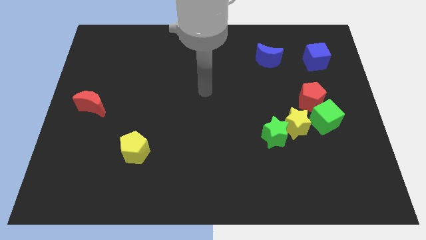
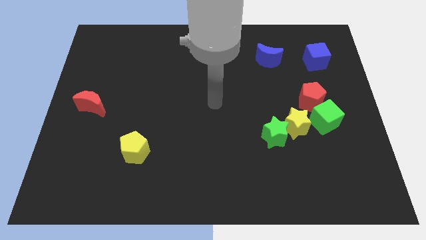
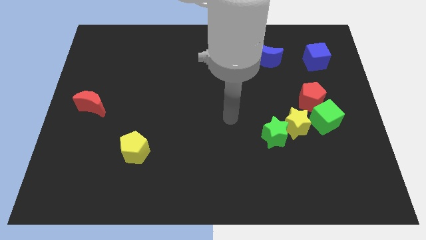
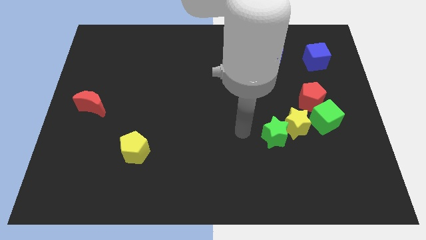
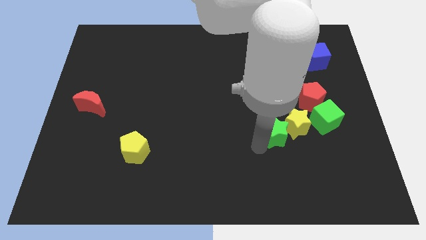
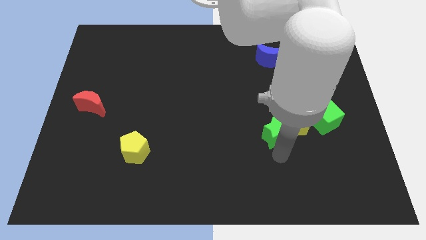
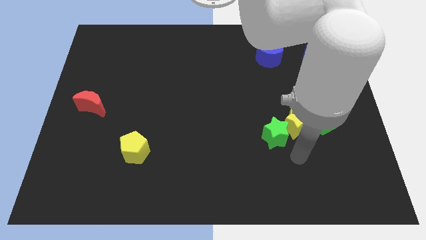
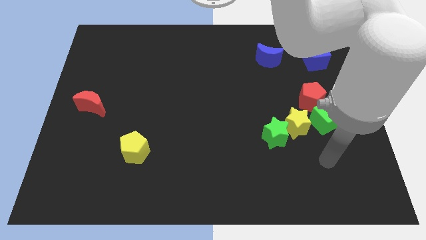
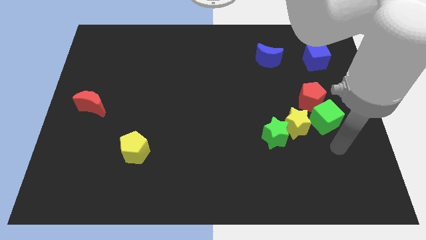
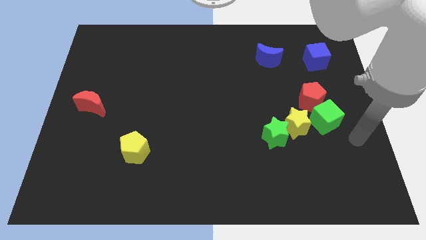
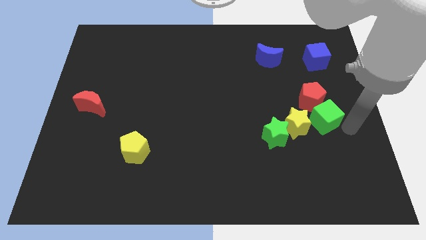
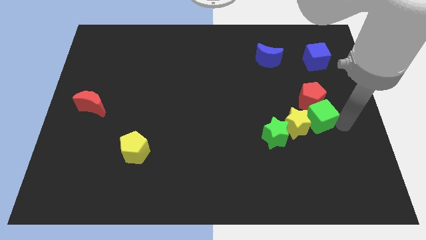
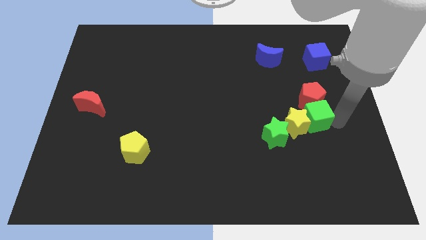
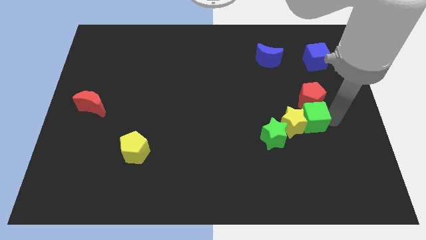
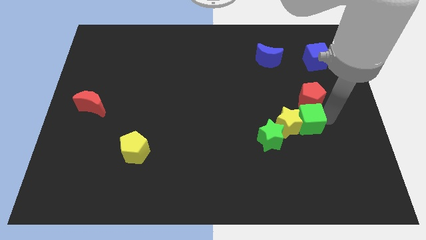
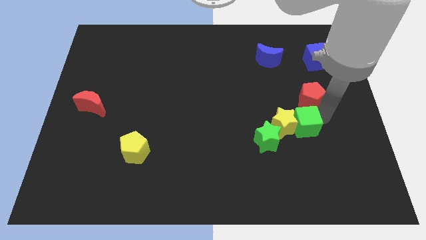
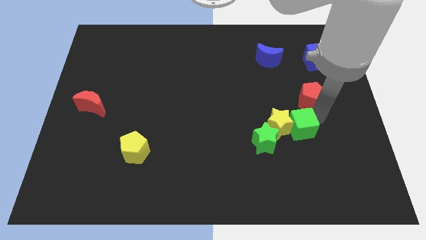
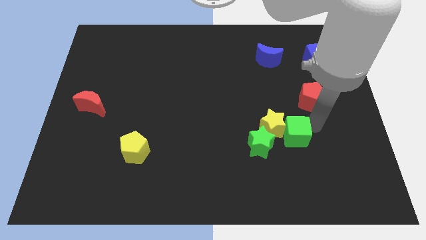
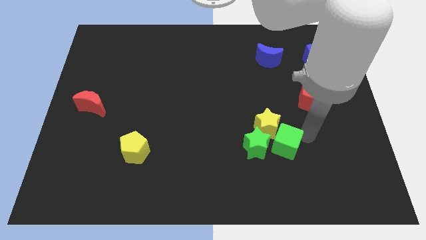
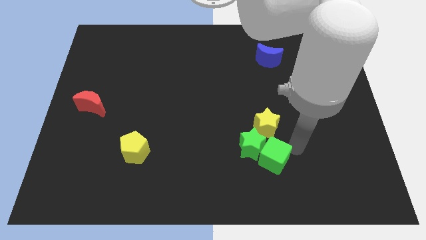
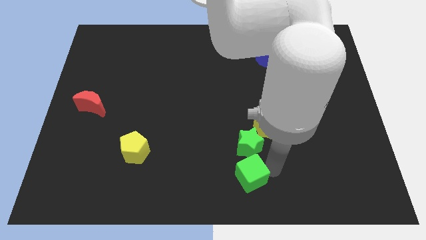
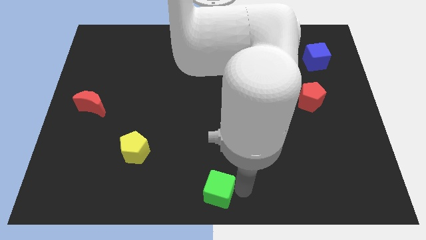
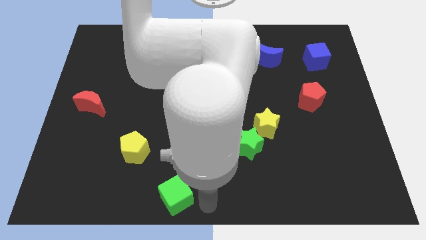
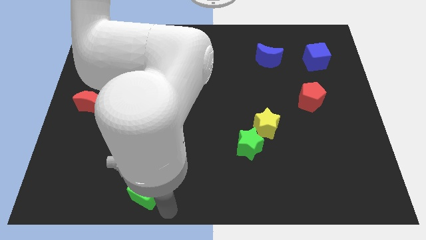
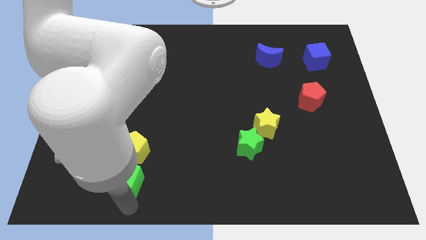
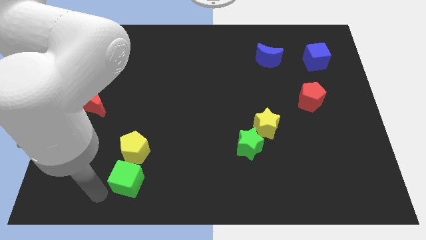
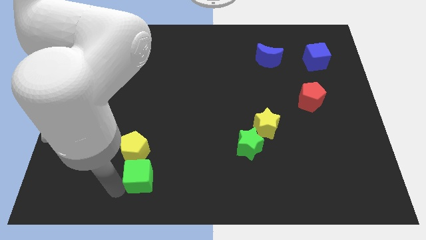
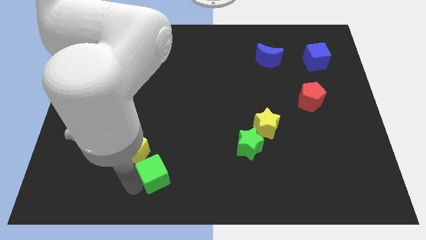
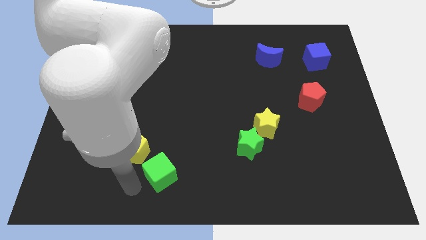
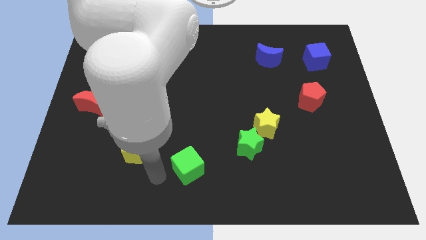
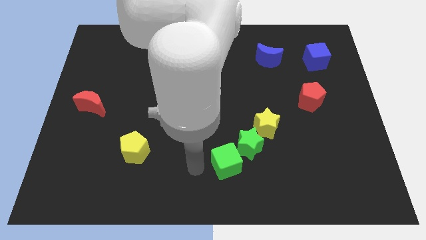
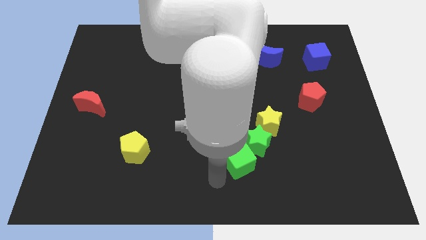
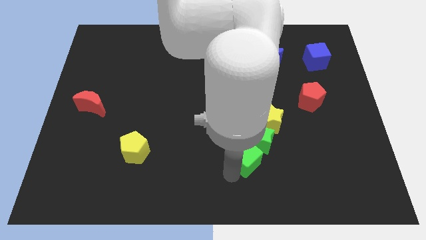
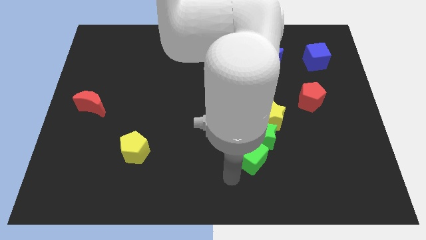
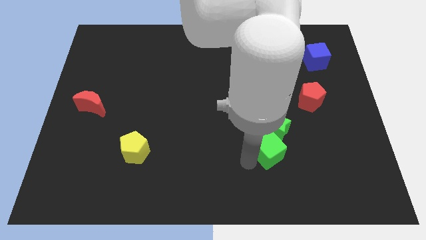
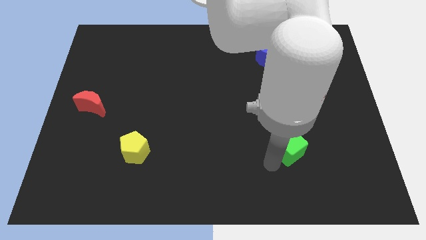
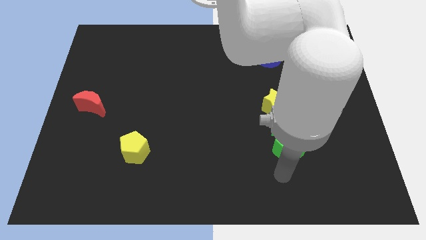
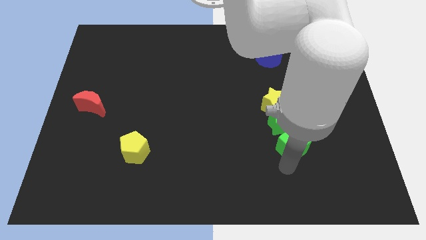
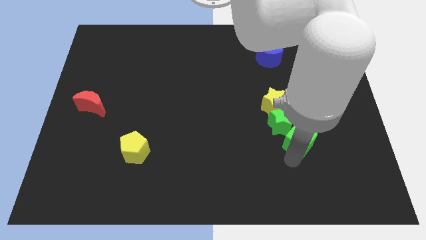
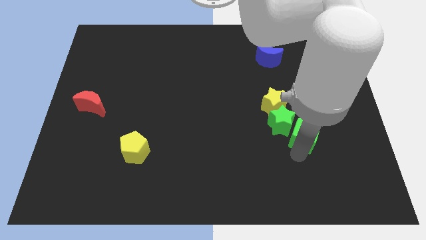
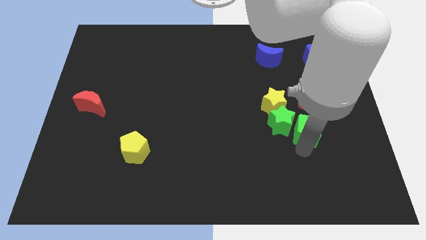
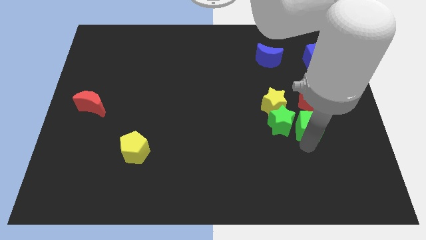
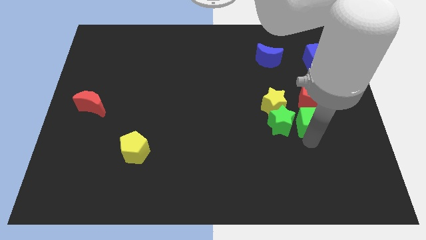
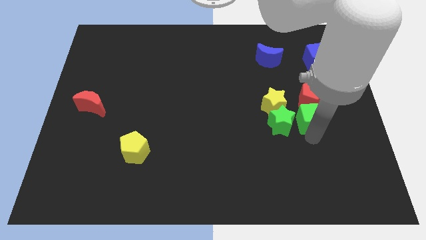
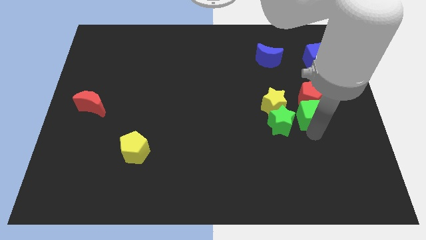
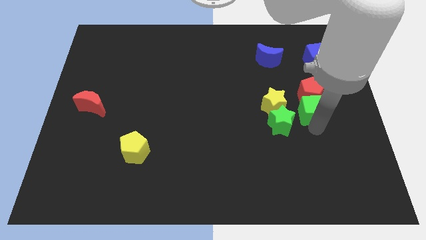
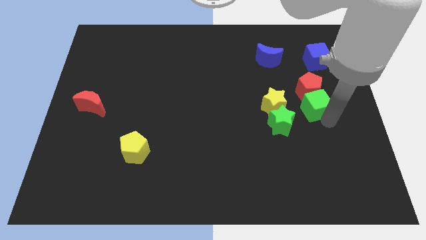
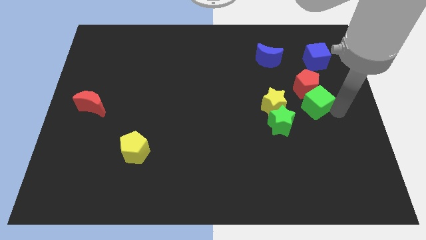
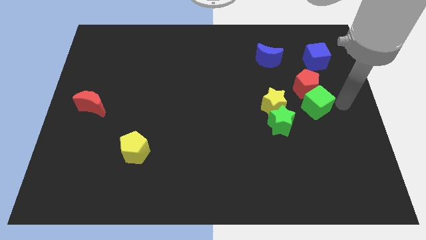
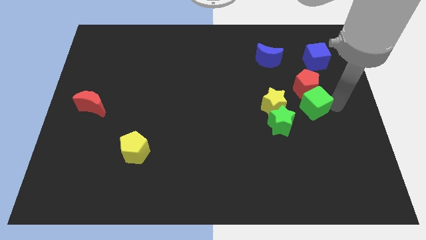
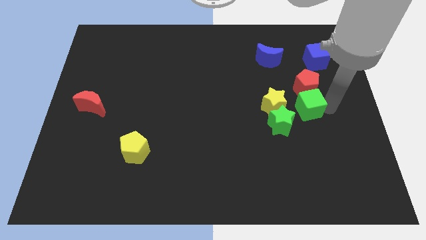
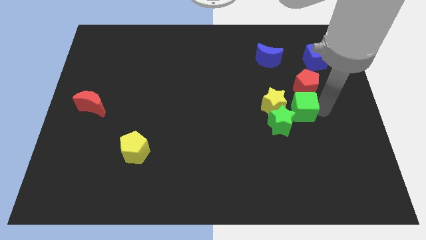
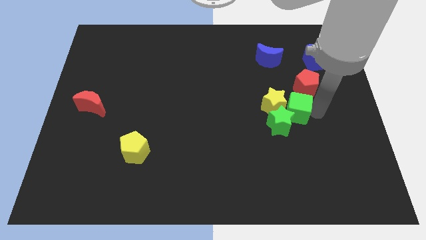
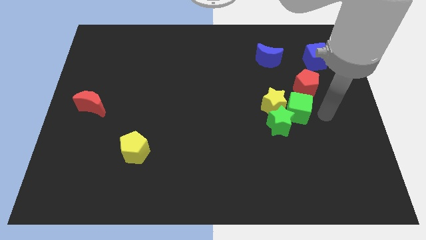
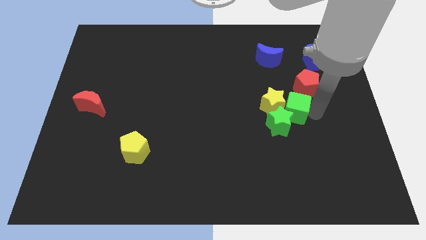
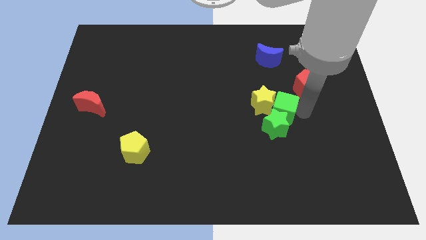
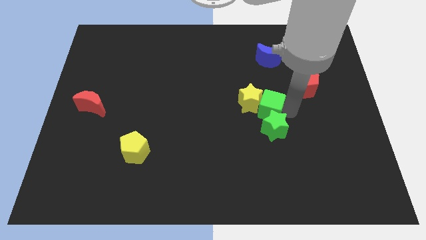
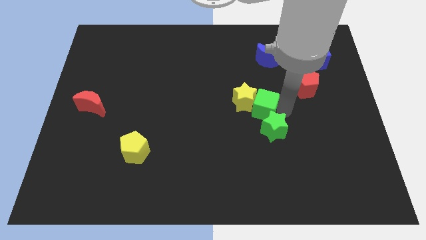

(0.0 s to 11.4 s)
push the green cube to the middle

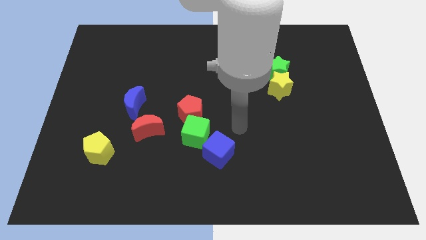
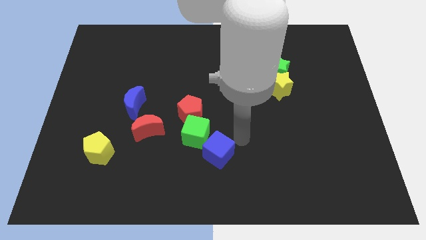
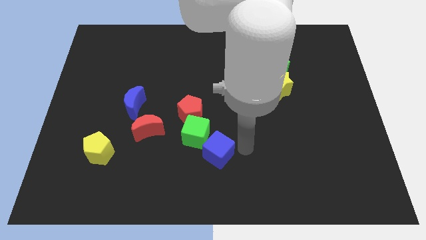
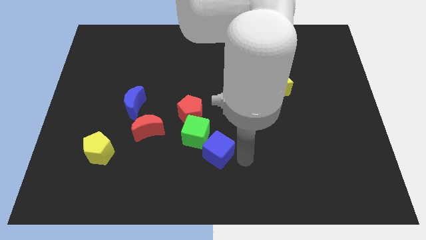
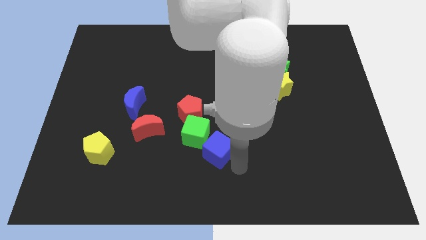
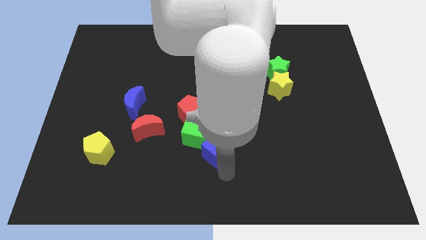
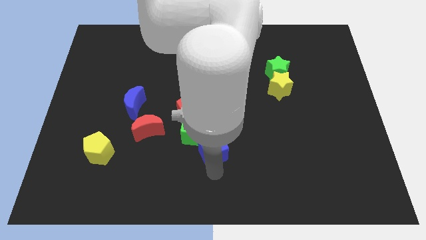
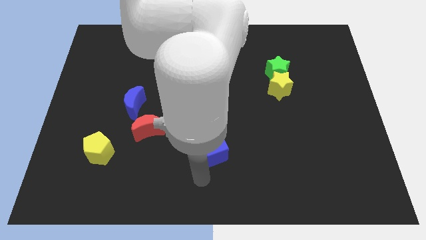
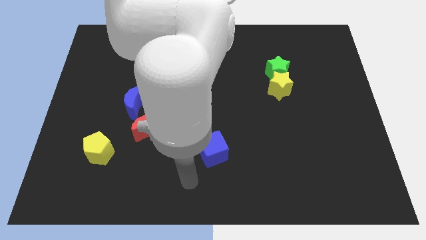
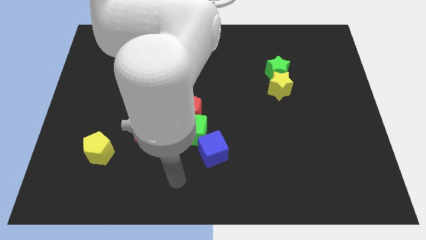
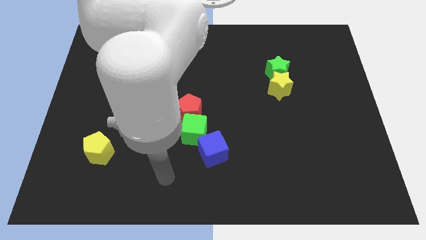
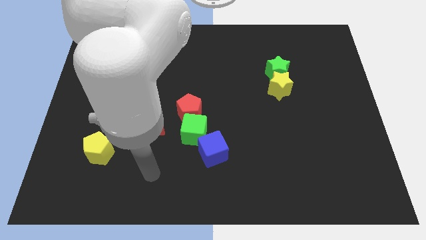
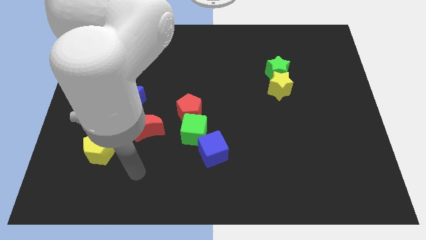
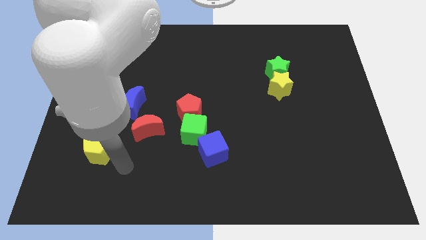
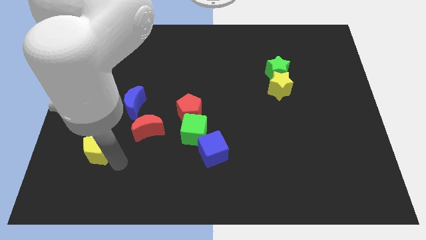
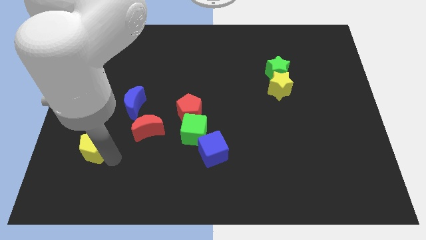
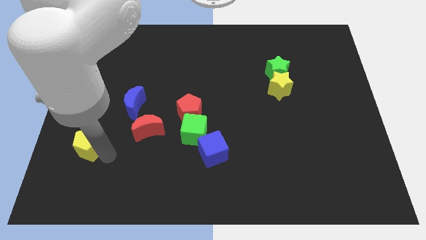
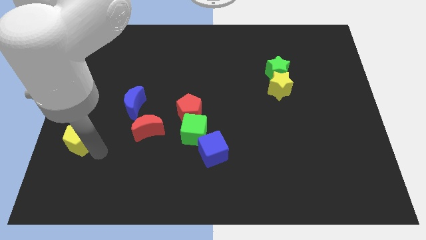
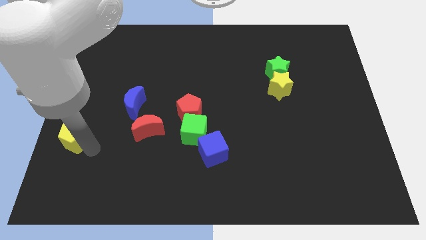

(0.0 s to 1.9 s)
push the yellow pentagon to the center left

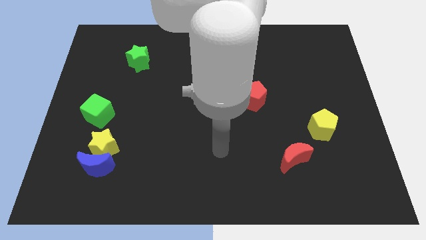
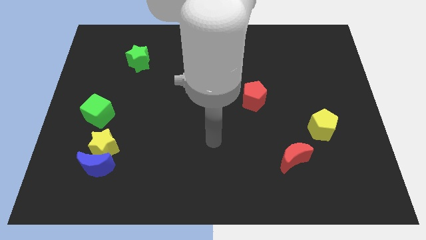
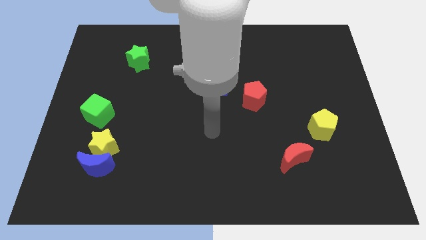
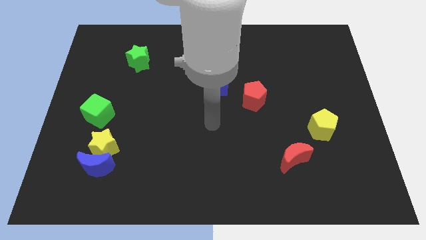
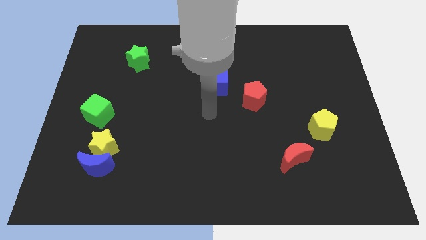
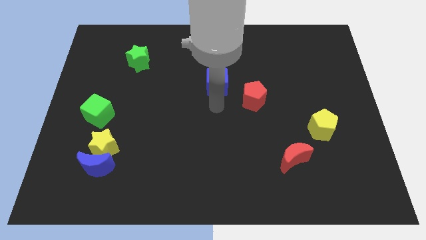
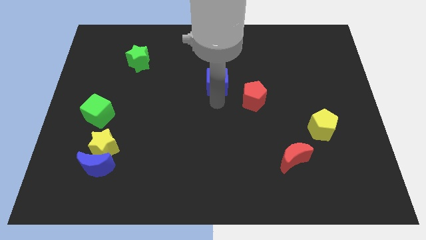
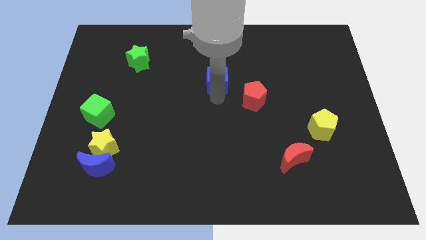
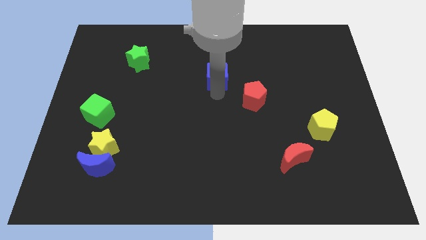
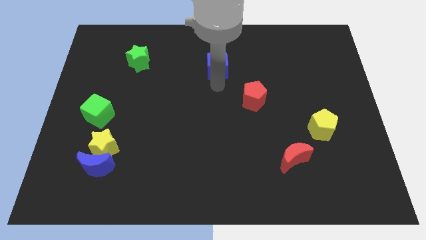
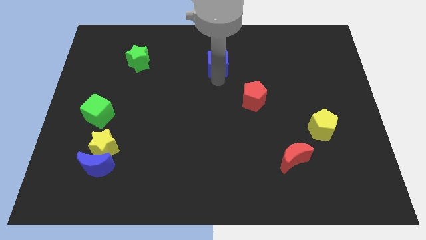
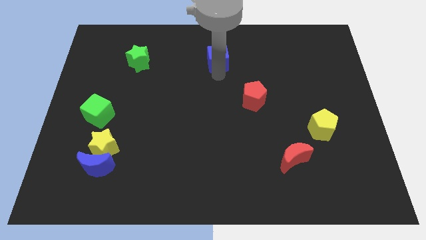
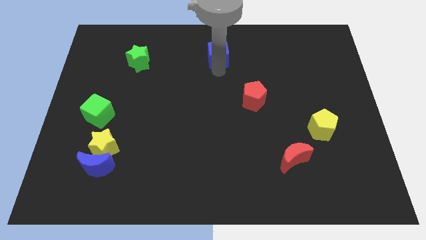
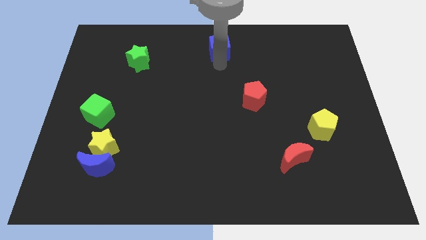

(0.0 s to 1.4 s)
put the blue cube to the top
